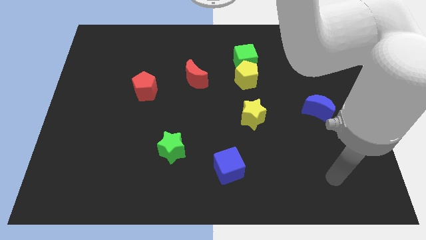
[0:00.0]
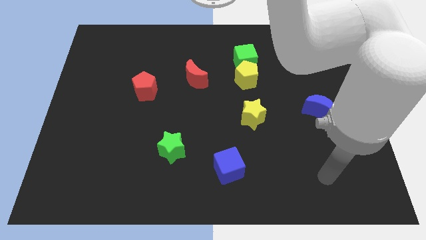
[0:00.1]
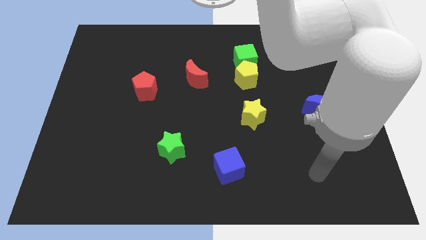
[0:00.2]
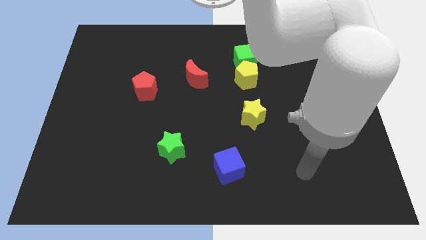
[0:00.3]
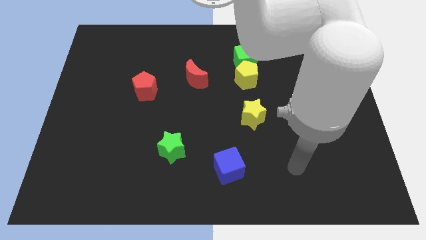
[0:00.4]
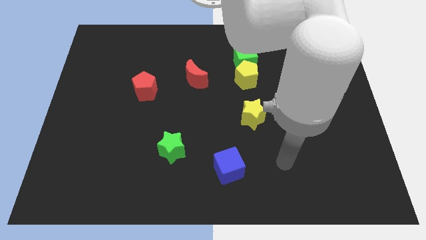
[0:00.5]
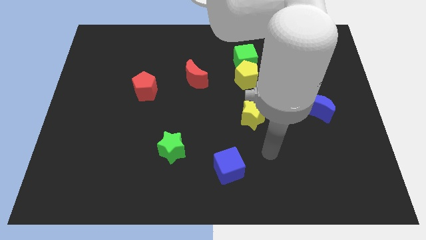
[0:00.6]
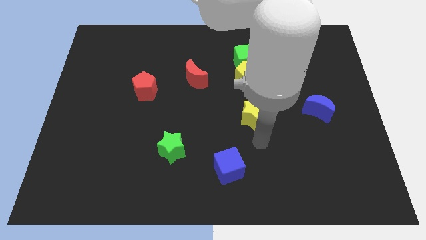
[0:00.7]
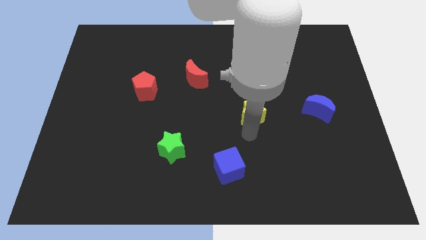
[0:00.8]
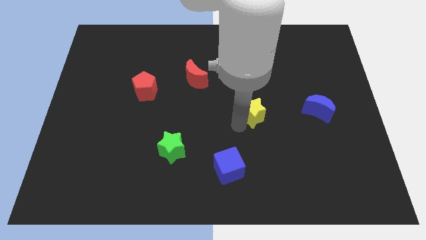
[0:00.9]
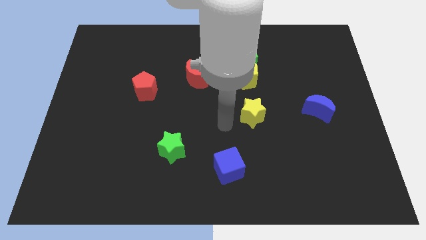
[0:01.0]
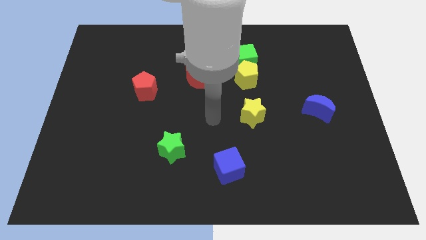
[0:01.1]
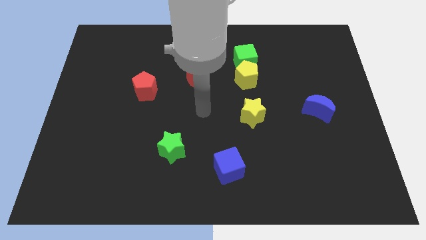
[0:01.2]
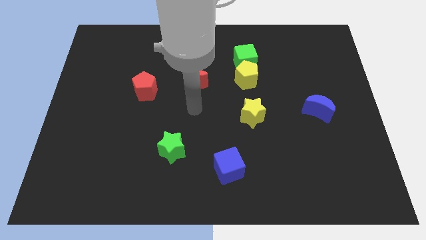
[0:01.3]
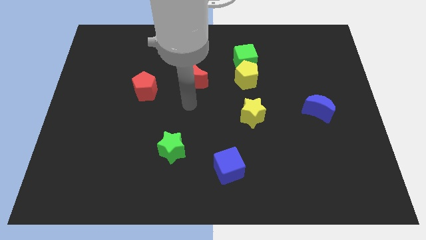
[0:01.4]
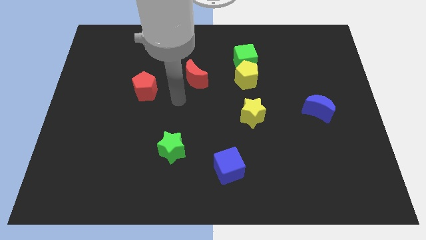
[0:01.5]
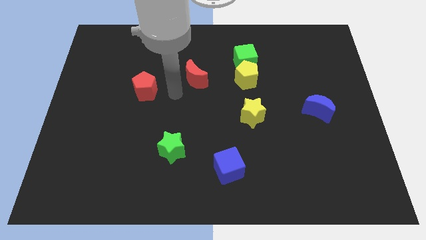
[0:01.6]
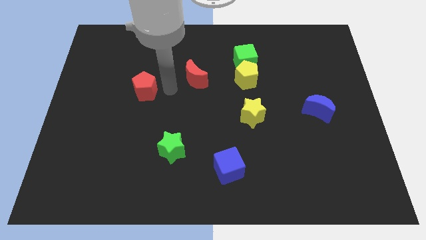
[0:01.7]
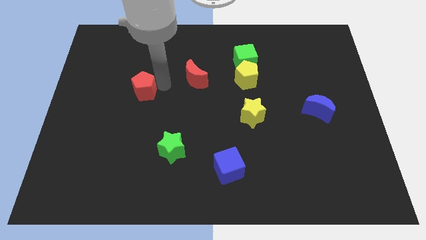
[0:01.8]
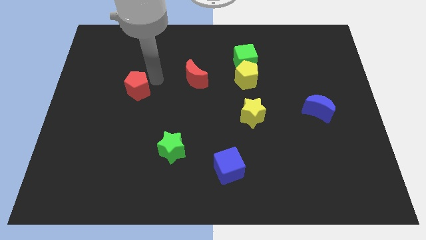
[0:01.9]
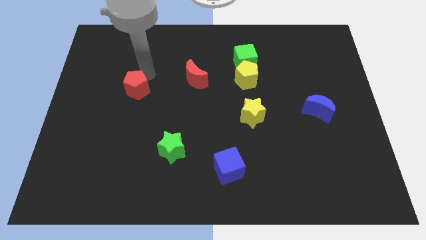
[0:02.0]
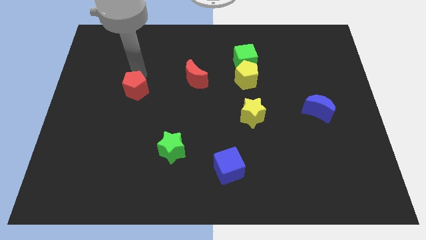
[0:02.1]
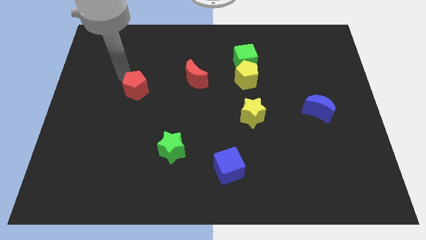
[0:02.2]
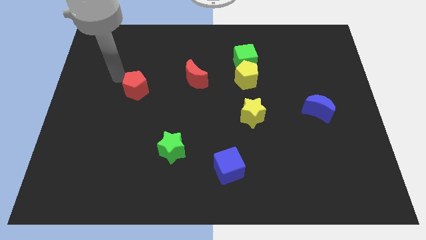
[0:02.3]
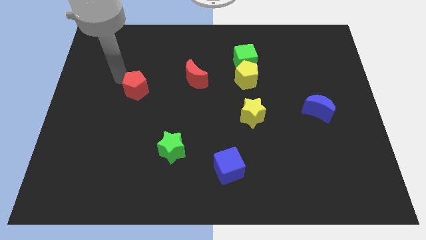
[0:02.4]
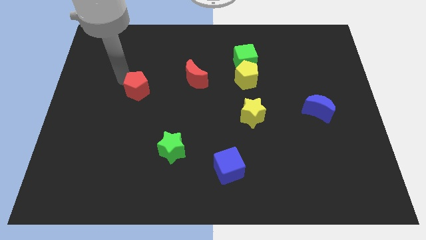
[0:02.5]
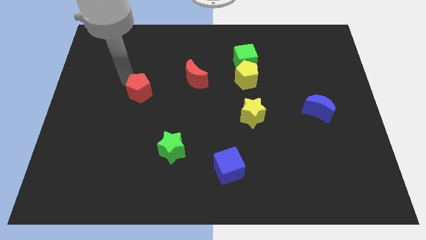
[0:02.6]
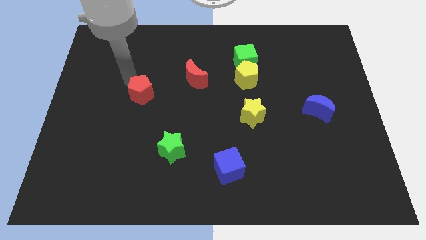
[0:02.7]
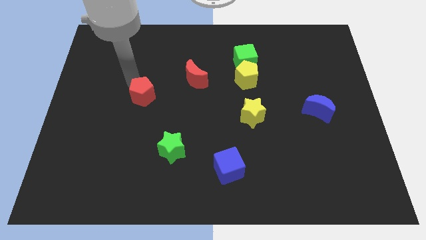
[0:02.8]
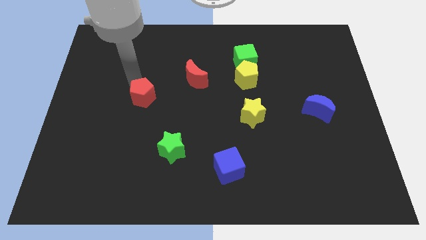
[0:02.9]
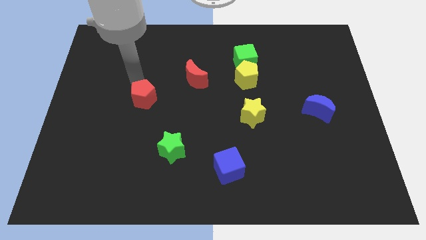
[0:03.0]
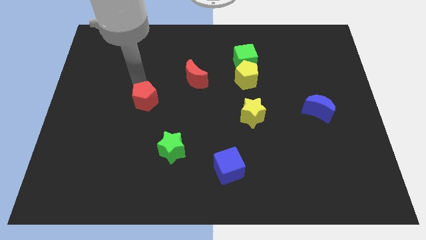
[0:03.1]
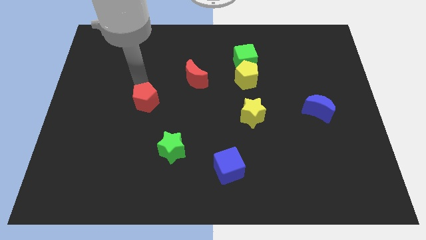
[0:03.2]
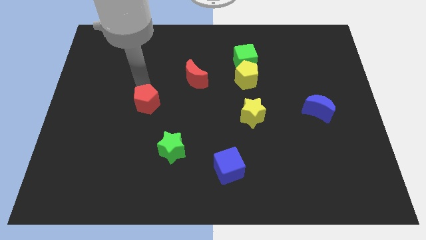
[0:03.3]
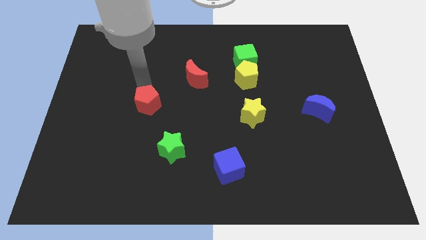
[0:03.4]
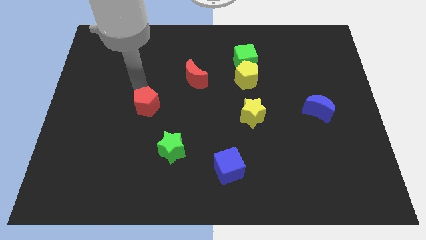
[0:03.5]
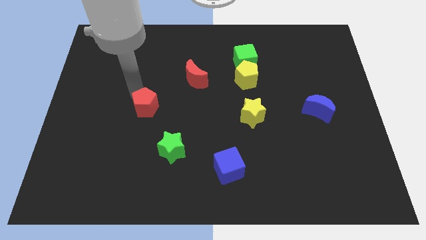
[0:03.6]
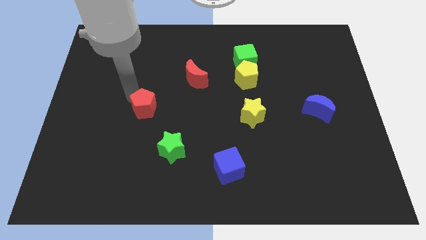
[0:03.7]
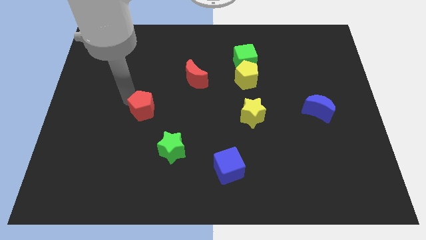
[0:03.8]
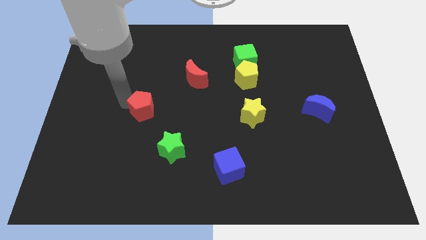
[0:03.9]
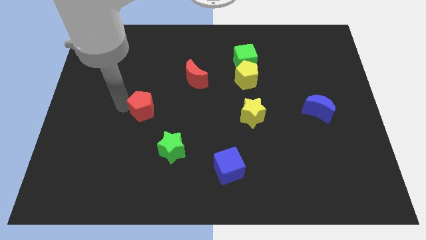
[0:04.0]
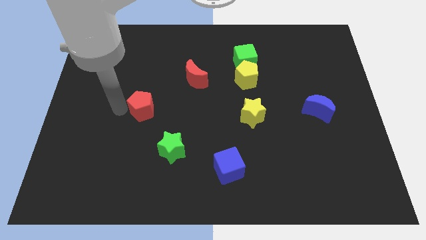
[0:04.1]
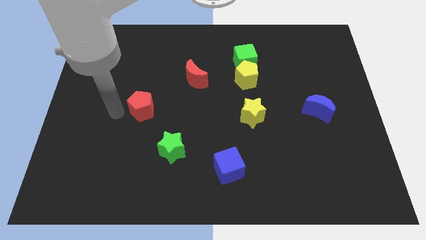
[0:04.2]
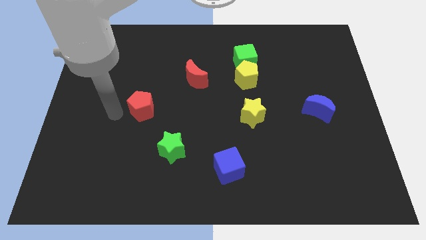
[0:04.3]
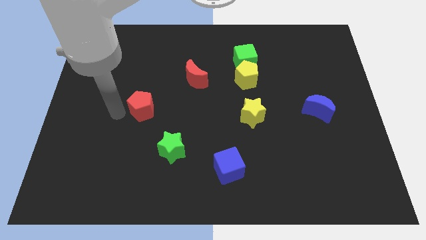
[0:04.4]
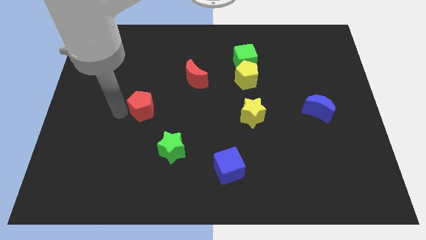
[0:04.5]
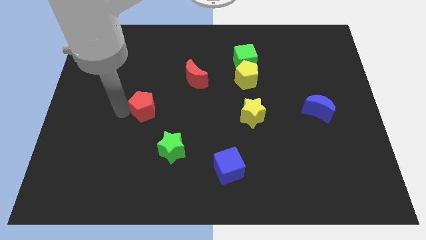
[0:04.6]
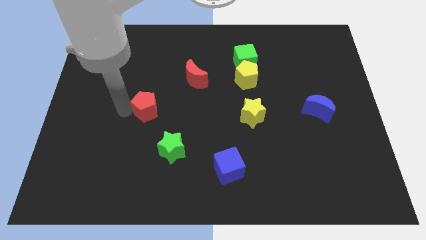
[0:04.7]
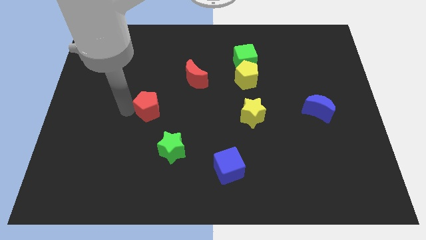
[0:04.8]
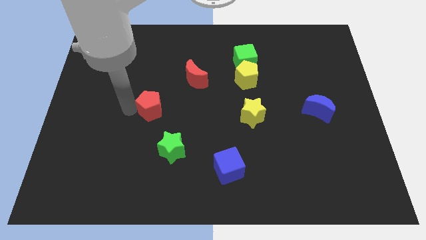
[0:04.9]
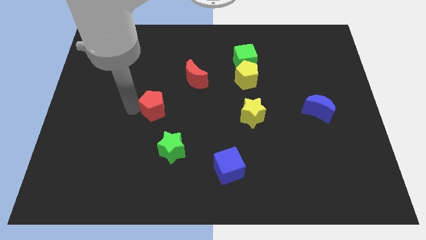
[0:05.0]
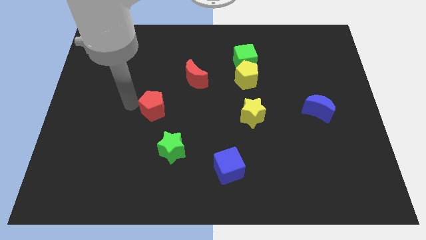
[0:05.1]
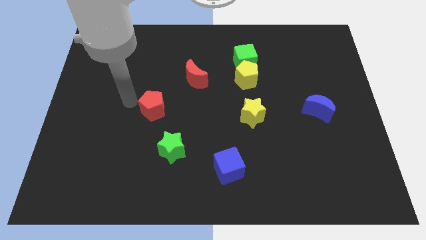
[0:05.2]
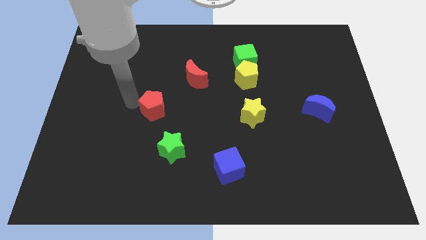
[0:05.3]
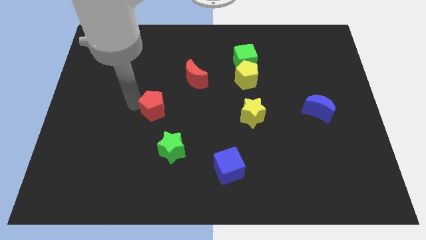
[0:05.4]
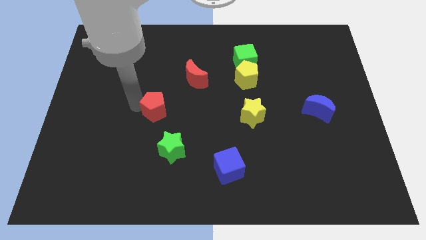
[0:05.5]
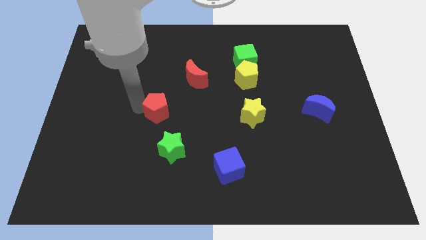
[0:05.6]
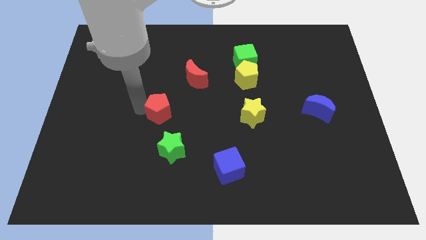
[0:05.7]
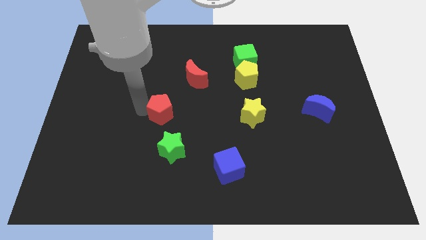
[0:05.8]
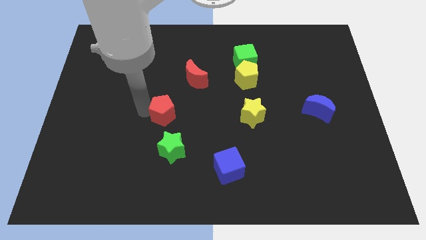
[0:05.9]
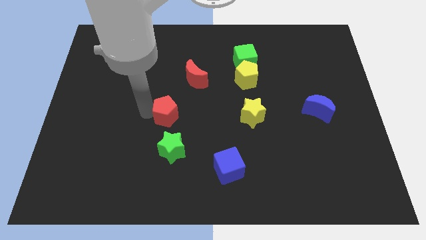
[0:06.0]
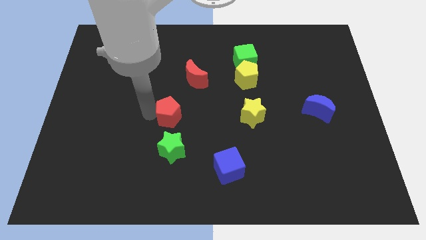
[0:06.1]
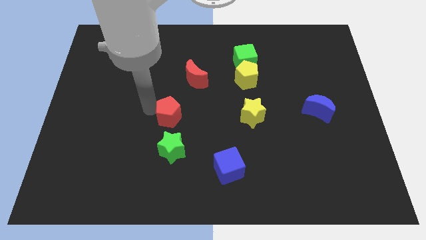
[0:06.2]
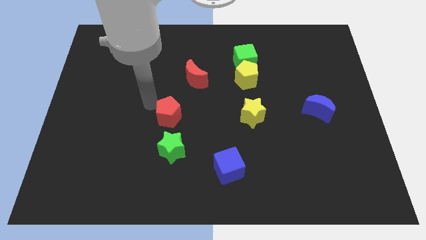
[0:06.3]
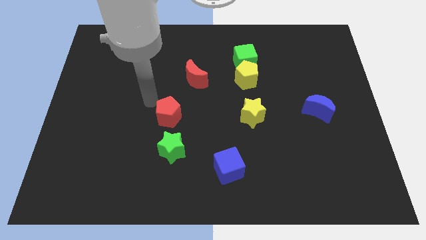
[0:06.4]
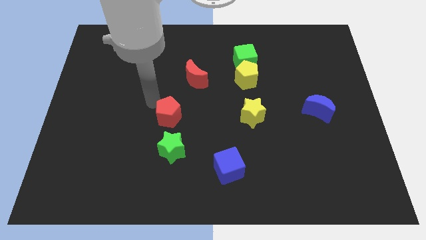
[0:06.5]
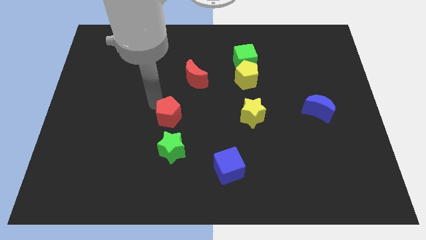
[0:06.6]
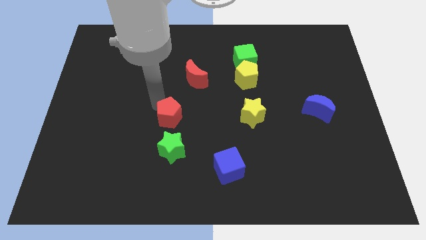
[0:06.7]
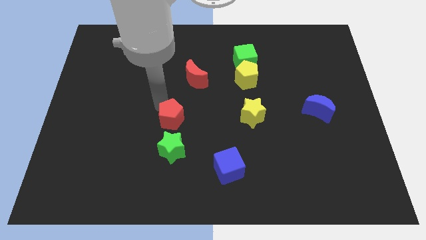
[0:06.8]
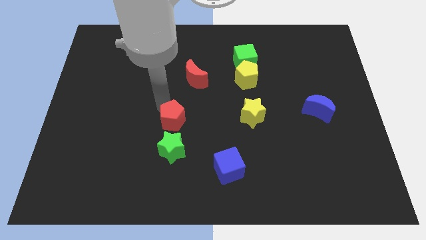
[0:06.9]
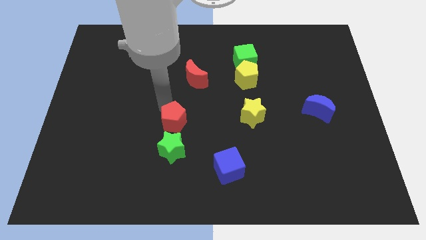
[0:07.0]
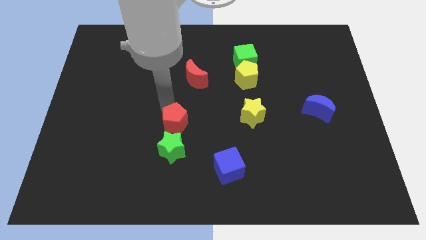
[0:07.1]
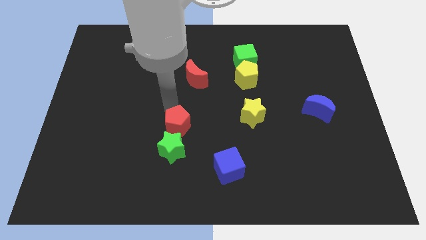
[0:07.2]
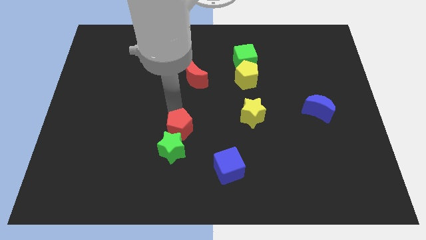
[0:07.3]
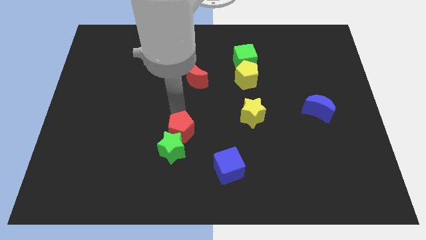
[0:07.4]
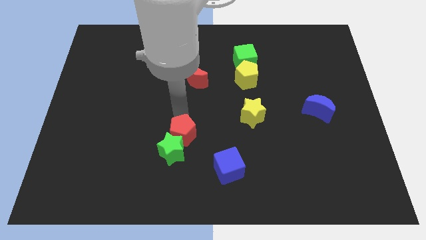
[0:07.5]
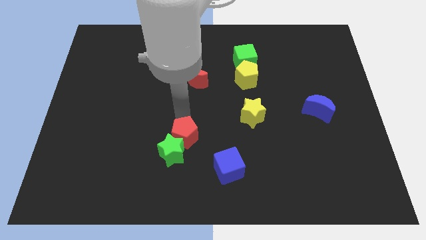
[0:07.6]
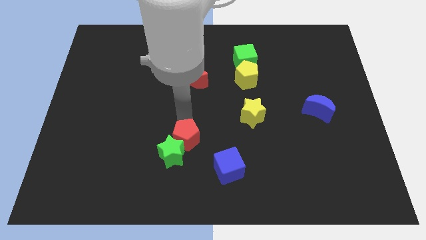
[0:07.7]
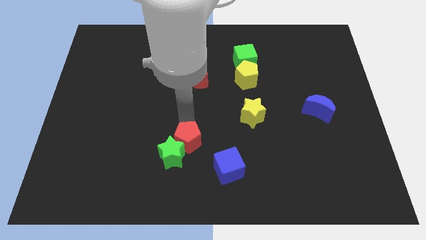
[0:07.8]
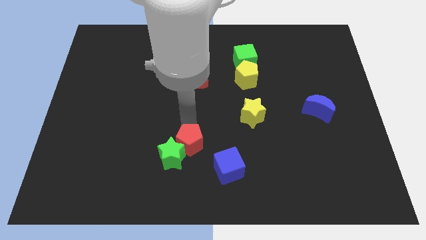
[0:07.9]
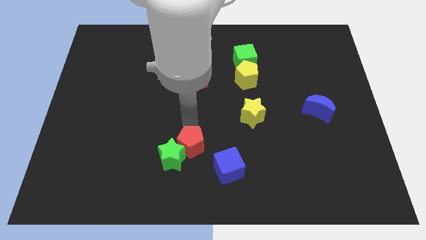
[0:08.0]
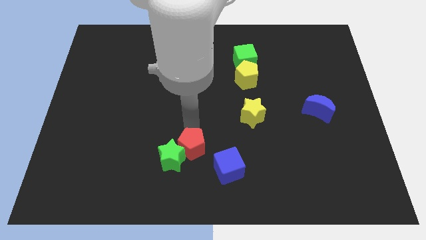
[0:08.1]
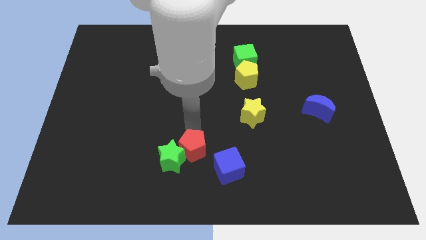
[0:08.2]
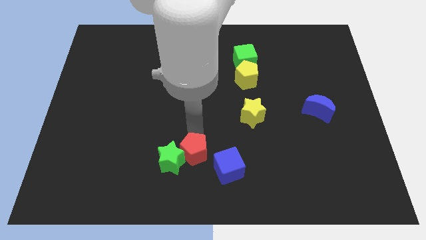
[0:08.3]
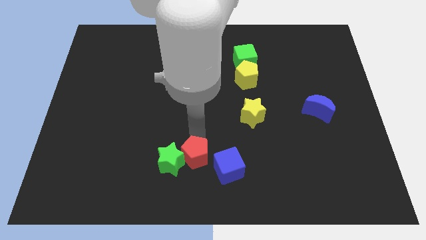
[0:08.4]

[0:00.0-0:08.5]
move the red pentagon to the bottom side
